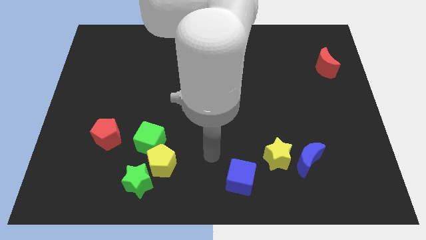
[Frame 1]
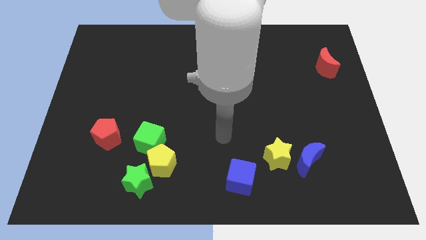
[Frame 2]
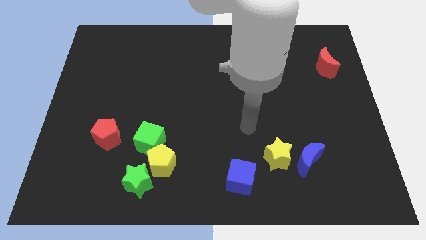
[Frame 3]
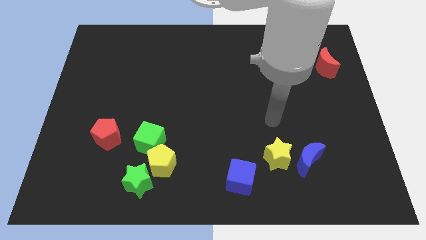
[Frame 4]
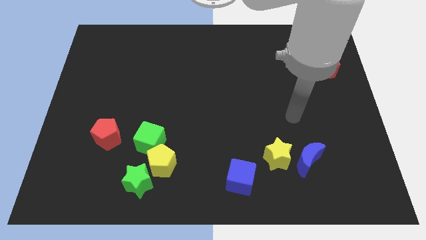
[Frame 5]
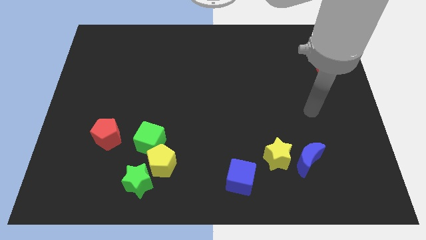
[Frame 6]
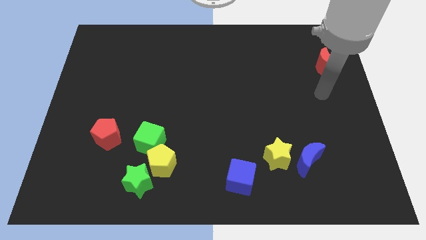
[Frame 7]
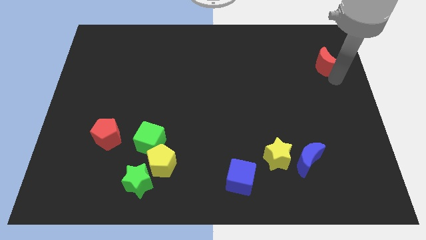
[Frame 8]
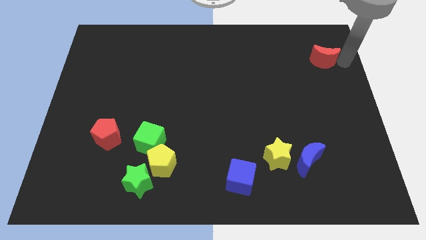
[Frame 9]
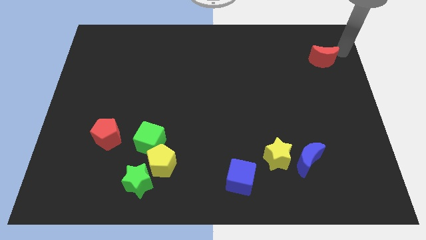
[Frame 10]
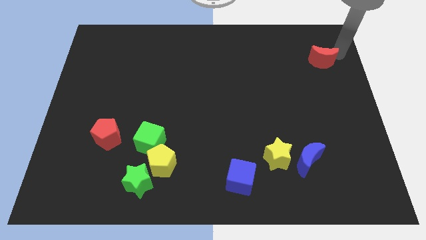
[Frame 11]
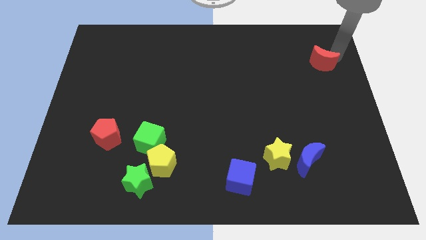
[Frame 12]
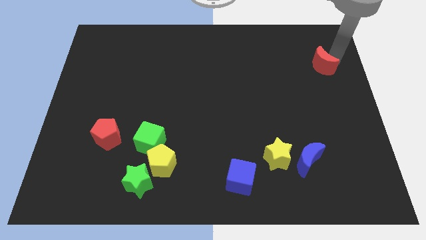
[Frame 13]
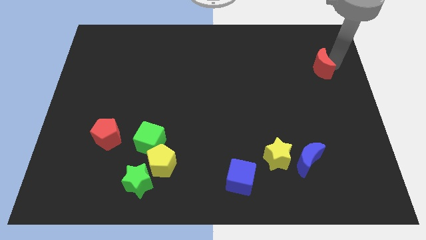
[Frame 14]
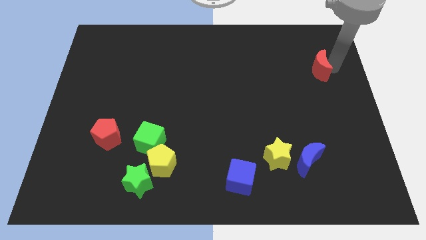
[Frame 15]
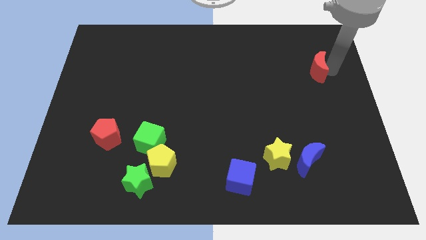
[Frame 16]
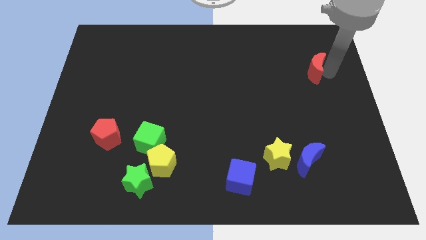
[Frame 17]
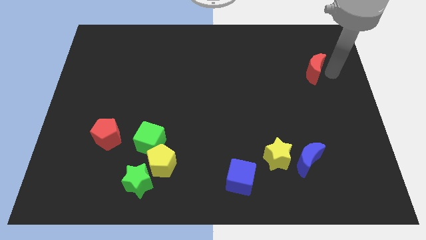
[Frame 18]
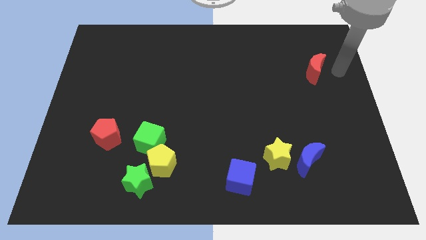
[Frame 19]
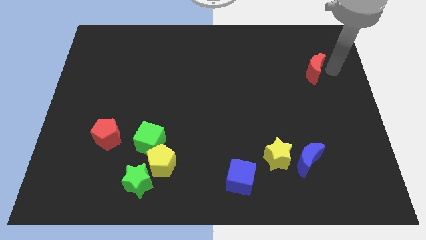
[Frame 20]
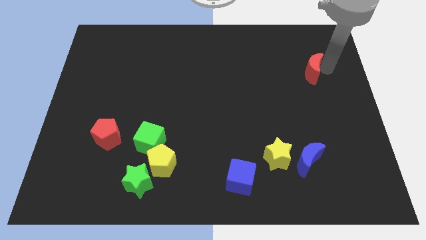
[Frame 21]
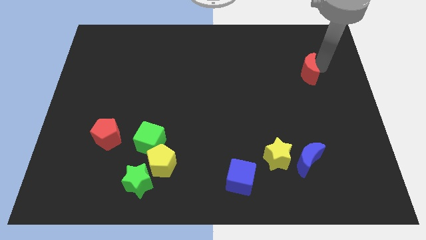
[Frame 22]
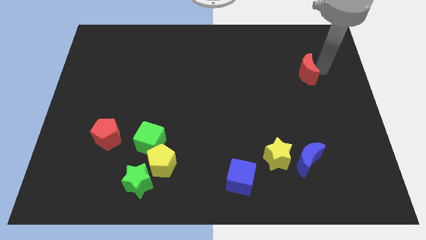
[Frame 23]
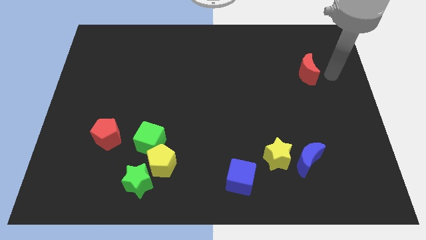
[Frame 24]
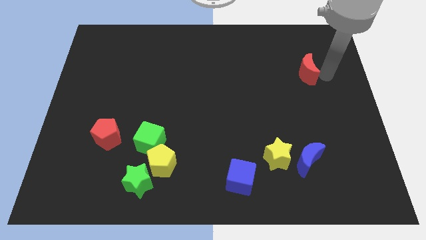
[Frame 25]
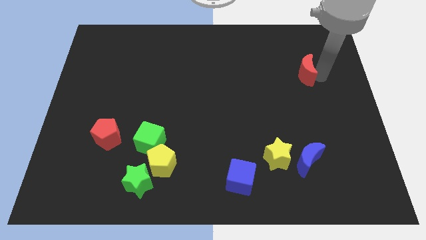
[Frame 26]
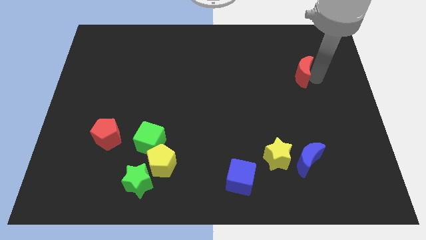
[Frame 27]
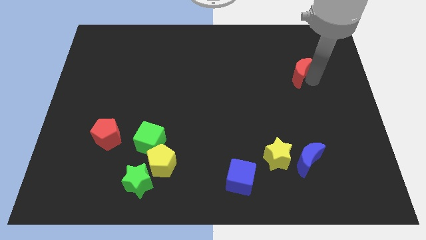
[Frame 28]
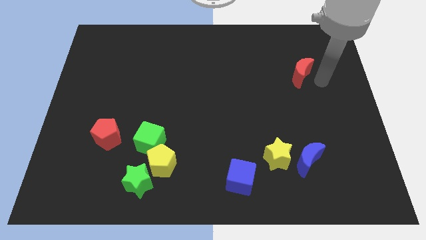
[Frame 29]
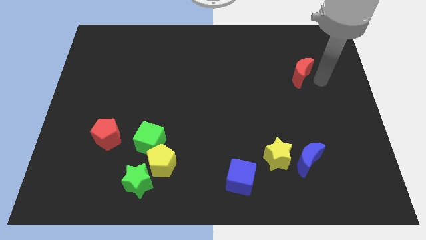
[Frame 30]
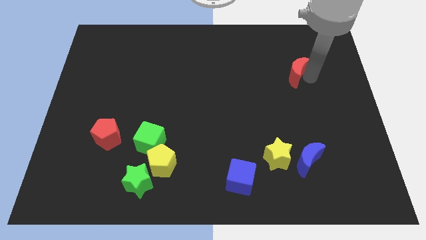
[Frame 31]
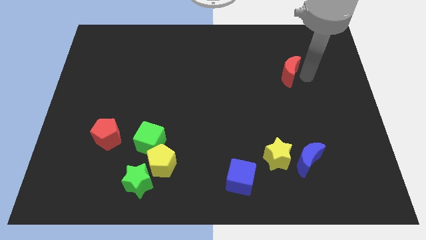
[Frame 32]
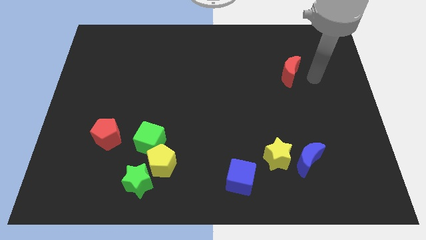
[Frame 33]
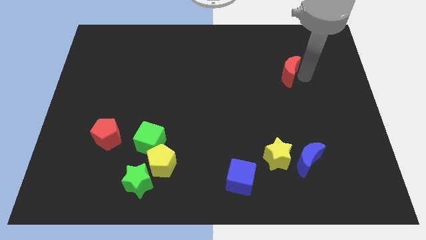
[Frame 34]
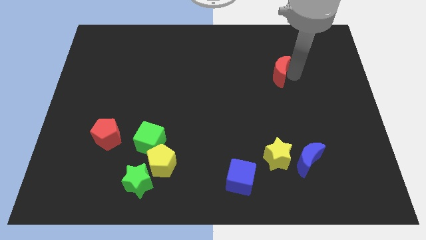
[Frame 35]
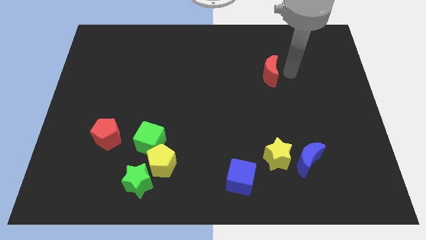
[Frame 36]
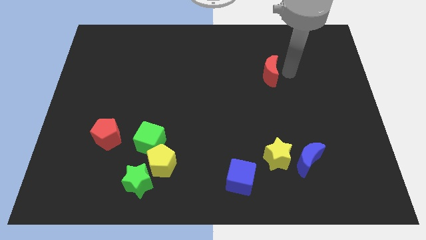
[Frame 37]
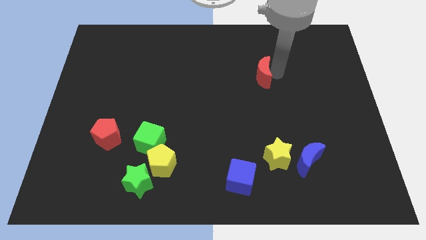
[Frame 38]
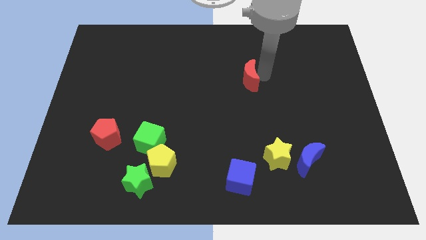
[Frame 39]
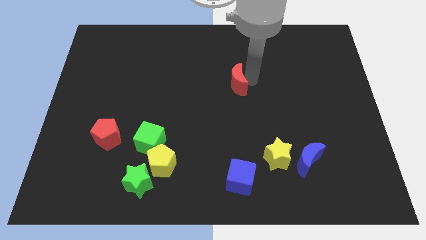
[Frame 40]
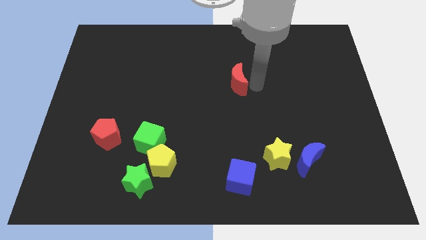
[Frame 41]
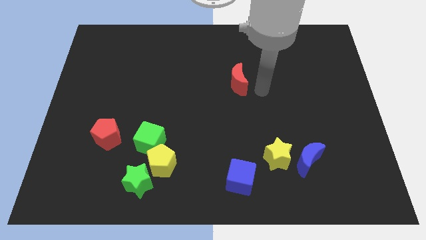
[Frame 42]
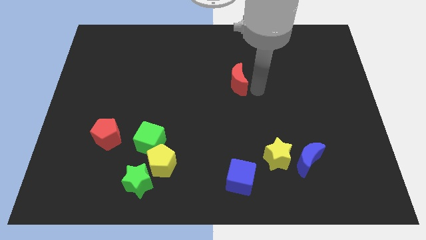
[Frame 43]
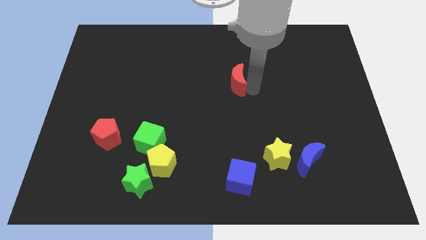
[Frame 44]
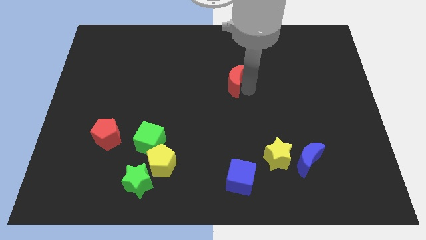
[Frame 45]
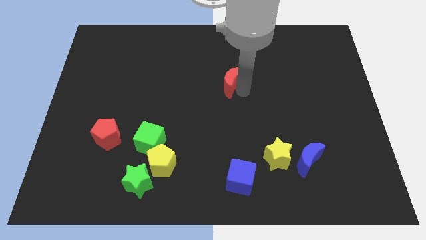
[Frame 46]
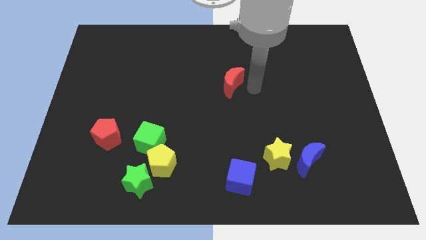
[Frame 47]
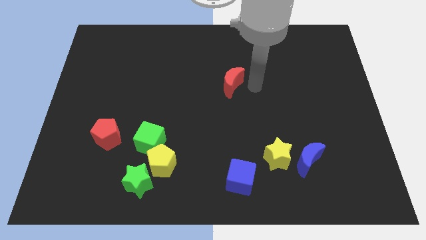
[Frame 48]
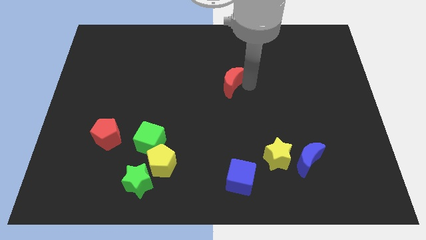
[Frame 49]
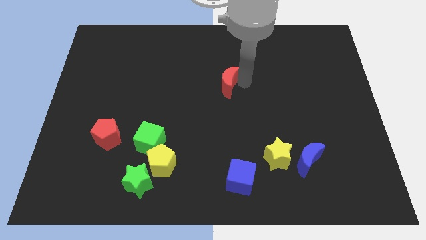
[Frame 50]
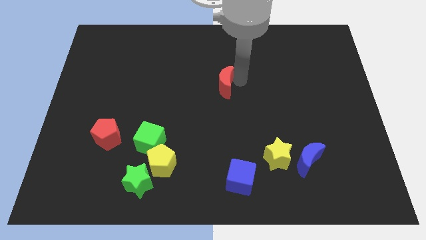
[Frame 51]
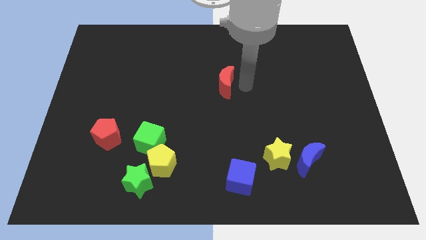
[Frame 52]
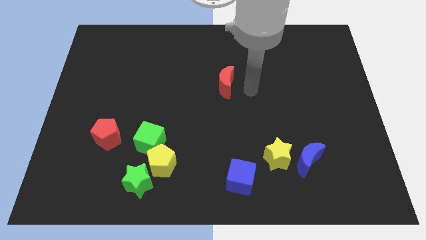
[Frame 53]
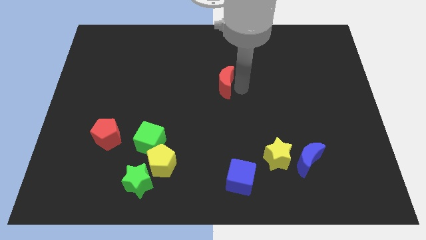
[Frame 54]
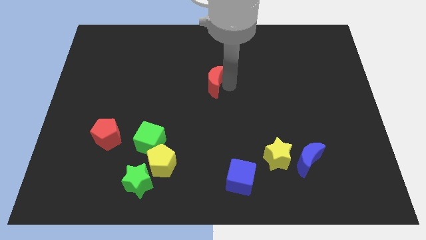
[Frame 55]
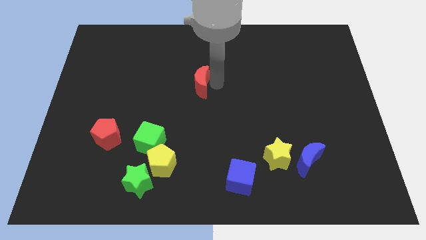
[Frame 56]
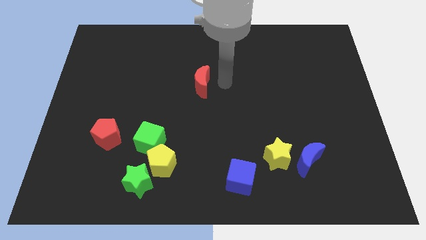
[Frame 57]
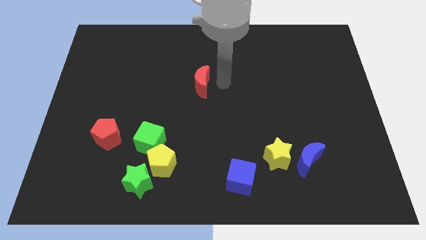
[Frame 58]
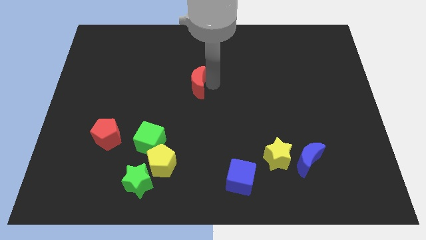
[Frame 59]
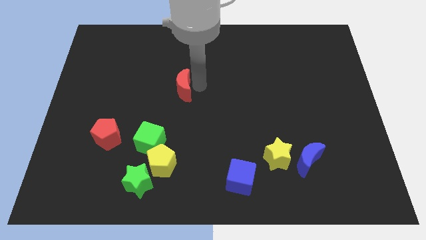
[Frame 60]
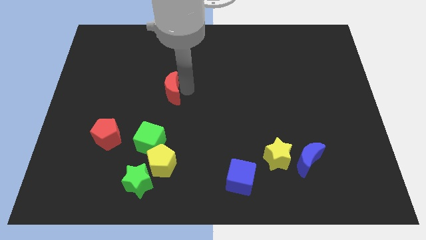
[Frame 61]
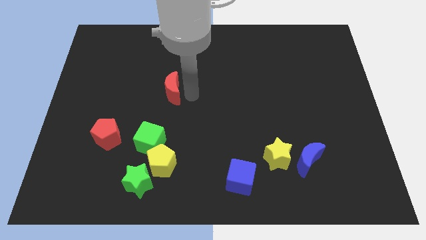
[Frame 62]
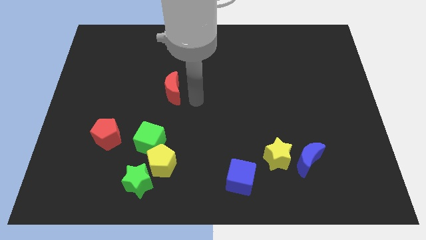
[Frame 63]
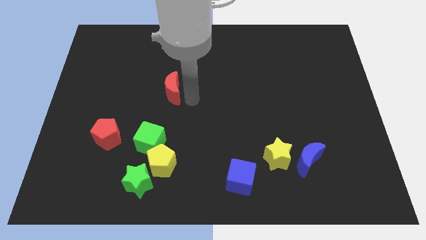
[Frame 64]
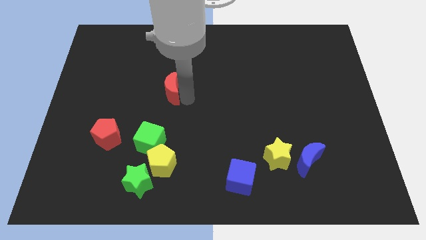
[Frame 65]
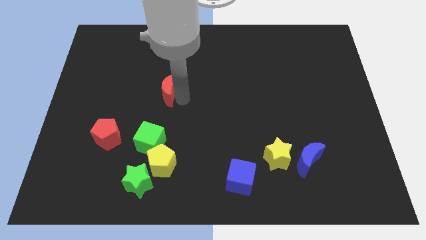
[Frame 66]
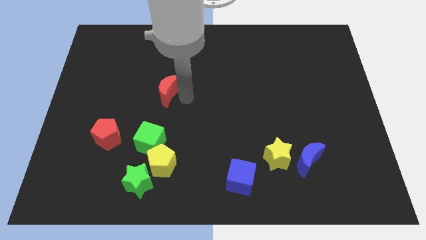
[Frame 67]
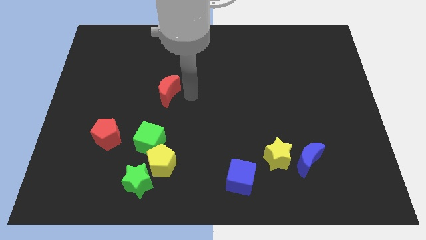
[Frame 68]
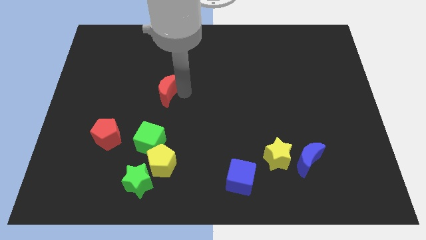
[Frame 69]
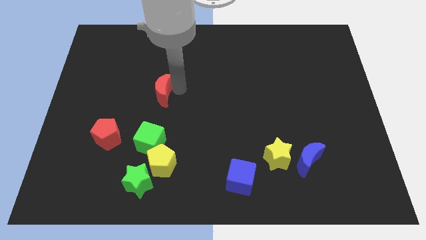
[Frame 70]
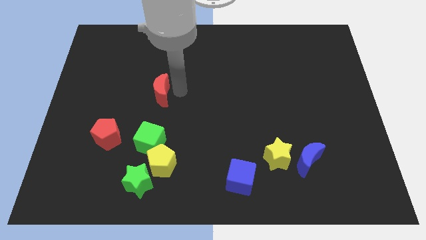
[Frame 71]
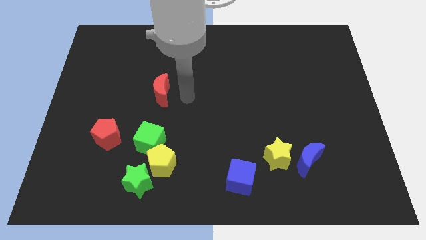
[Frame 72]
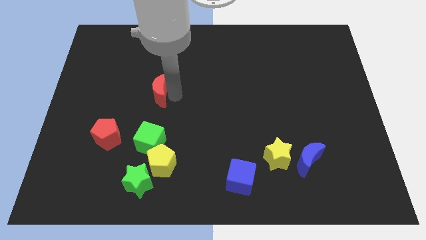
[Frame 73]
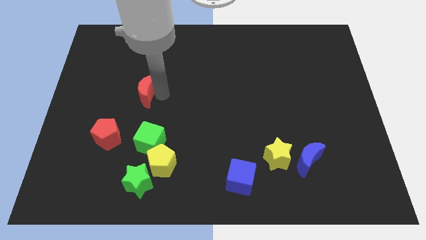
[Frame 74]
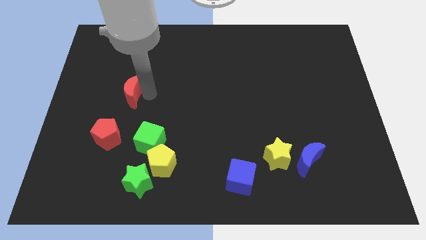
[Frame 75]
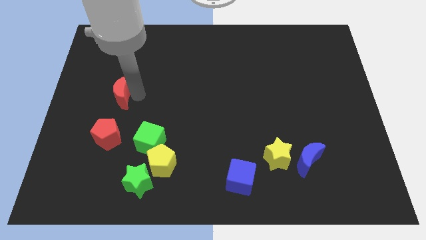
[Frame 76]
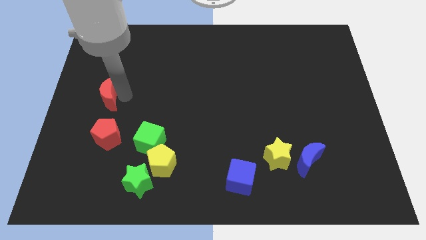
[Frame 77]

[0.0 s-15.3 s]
slide the red moon to the left side
